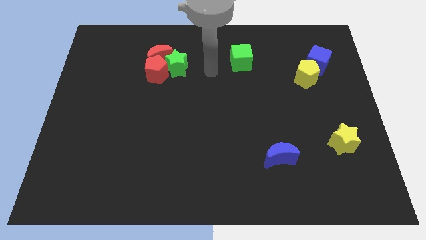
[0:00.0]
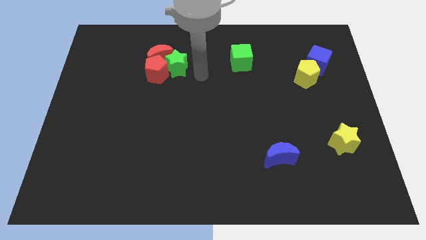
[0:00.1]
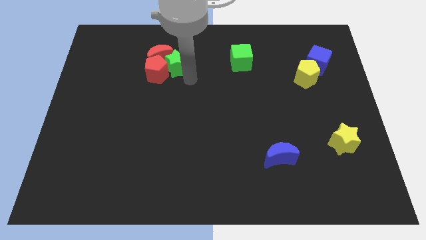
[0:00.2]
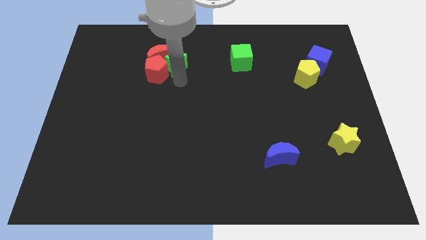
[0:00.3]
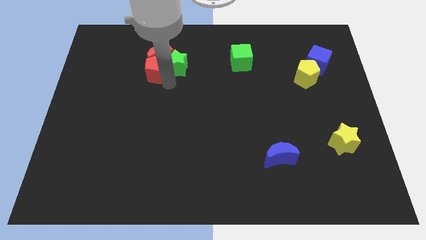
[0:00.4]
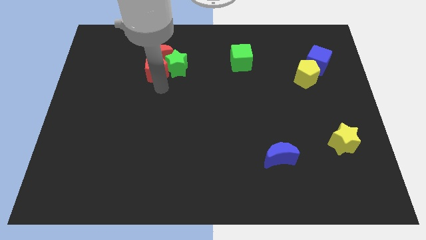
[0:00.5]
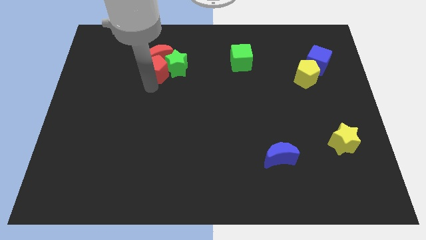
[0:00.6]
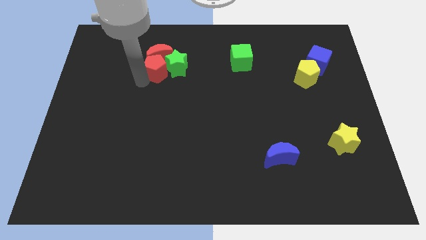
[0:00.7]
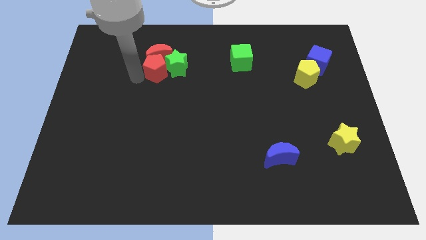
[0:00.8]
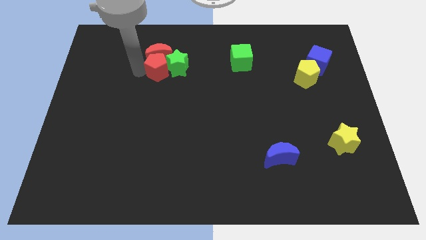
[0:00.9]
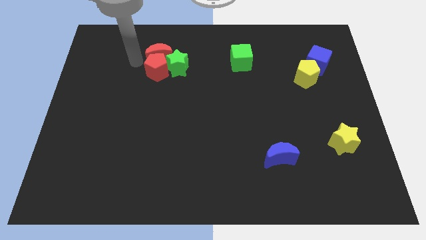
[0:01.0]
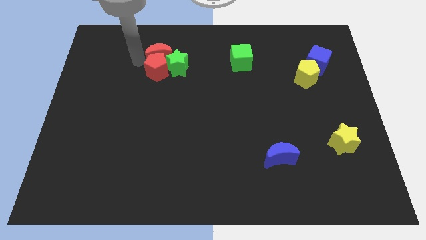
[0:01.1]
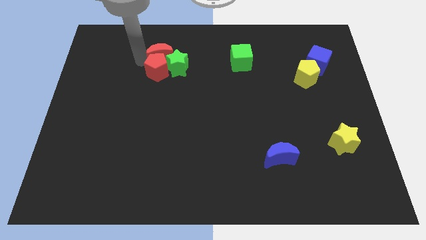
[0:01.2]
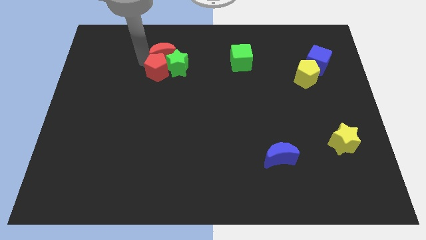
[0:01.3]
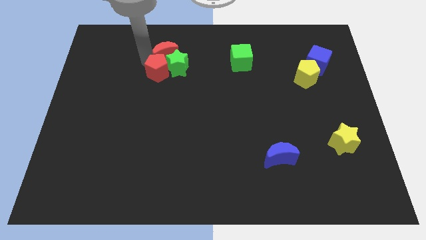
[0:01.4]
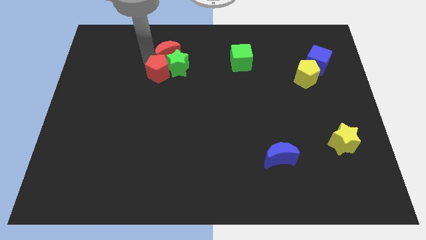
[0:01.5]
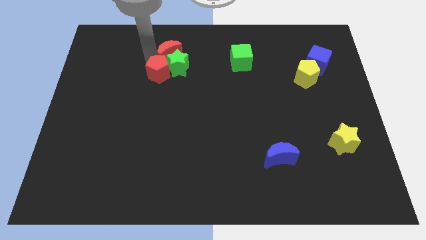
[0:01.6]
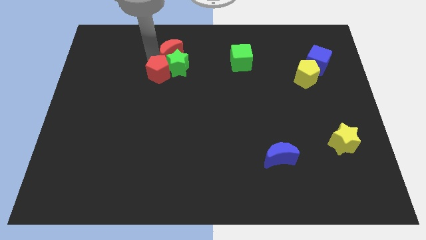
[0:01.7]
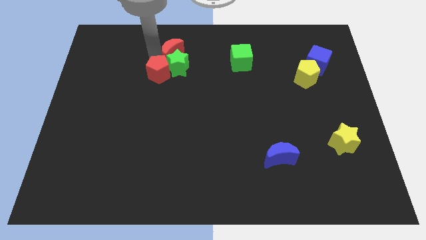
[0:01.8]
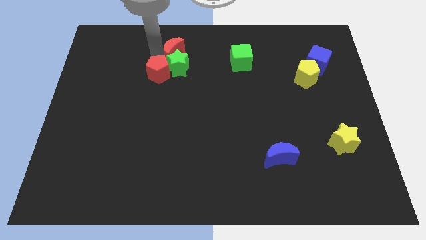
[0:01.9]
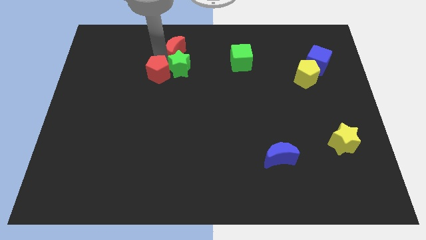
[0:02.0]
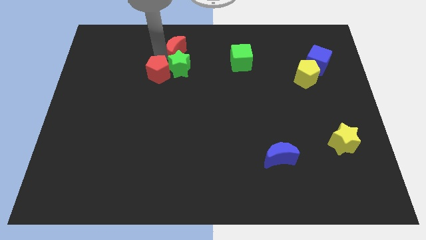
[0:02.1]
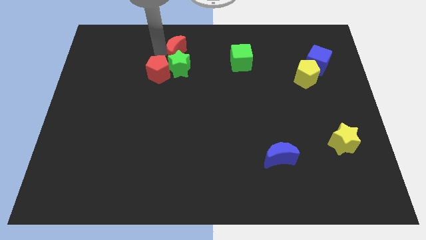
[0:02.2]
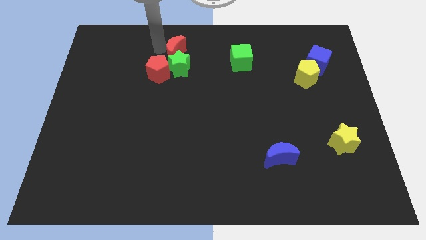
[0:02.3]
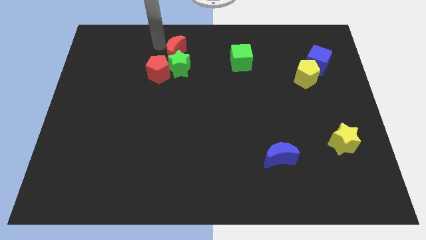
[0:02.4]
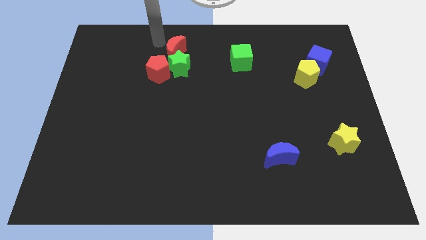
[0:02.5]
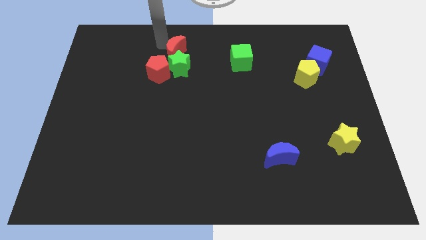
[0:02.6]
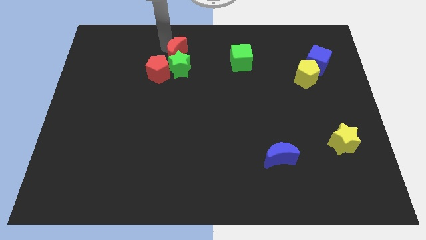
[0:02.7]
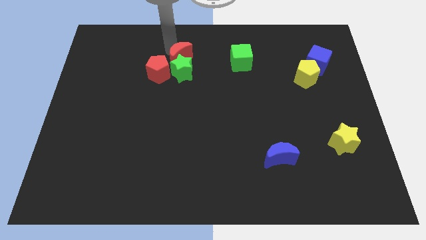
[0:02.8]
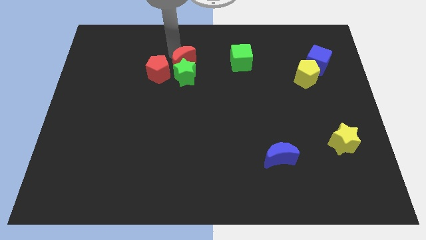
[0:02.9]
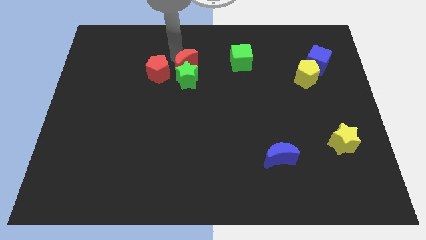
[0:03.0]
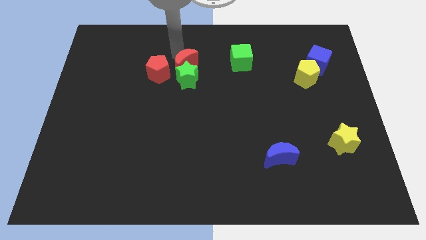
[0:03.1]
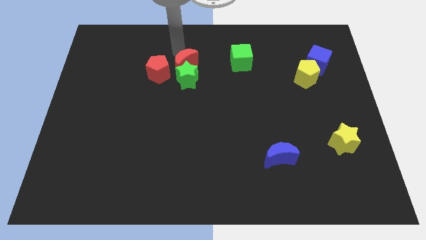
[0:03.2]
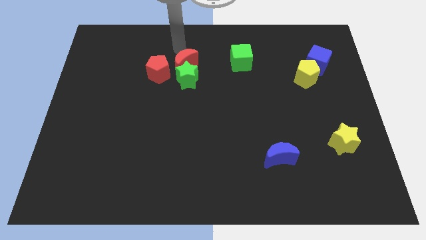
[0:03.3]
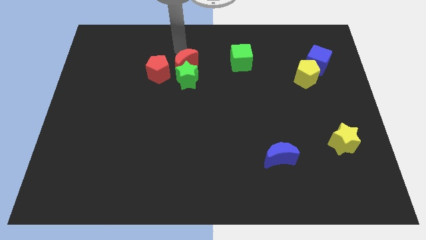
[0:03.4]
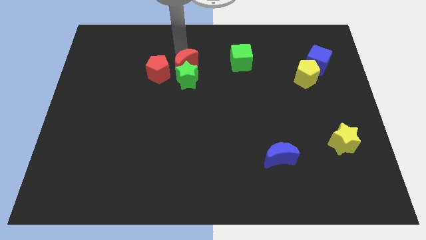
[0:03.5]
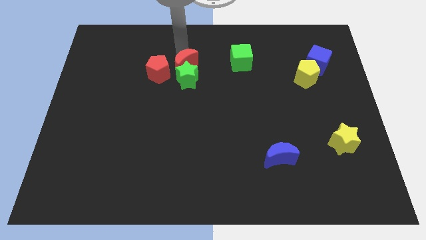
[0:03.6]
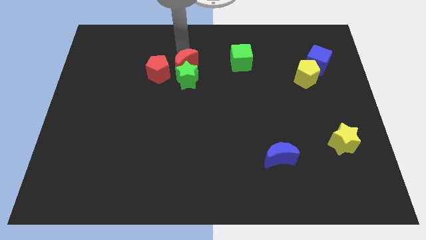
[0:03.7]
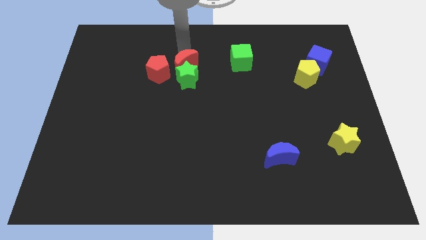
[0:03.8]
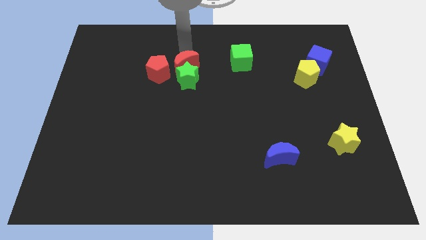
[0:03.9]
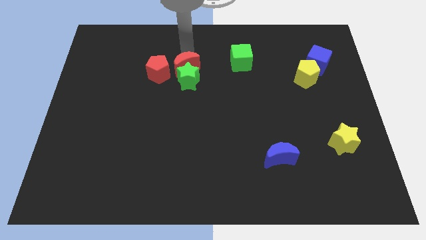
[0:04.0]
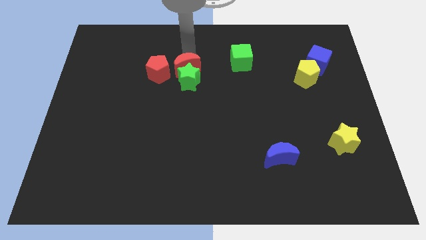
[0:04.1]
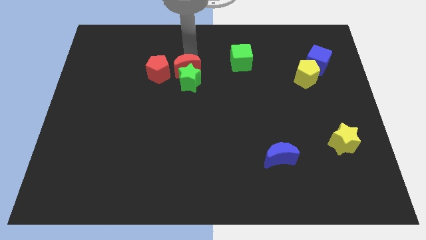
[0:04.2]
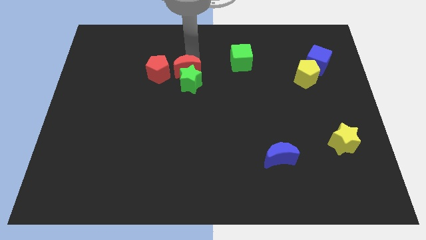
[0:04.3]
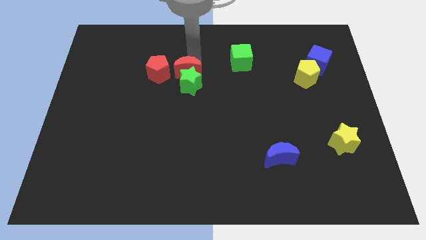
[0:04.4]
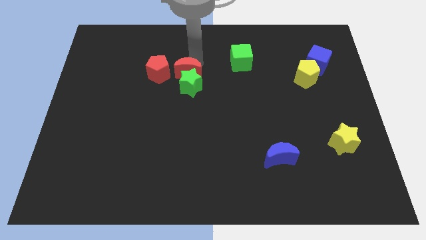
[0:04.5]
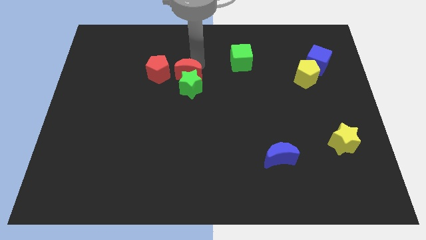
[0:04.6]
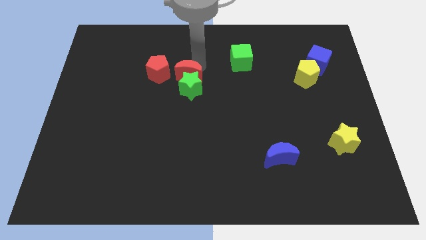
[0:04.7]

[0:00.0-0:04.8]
put the red moon diagonally down and to the right of the red pentagon

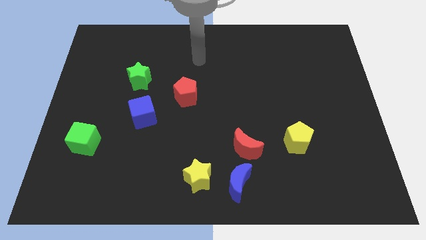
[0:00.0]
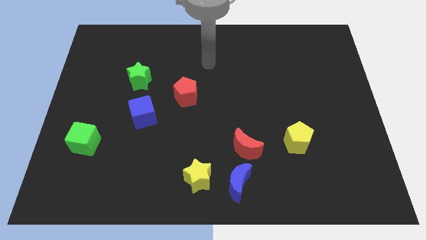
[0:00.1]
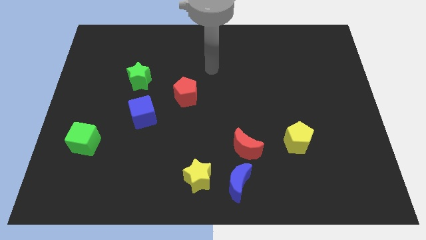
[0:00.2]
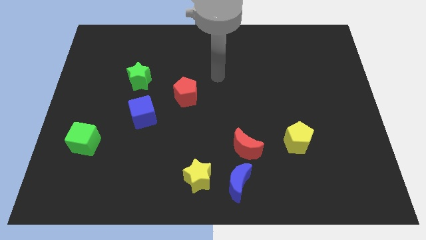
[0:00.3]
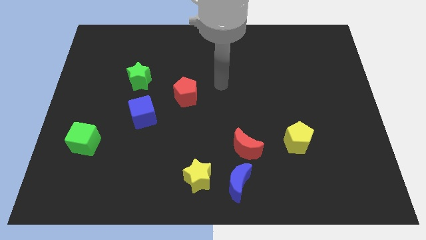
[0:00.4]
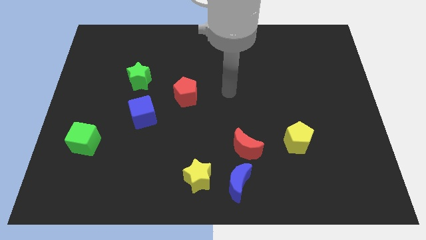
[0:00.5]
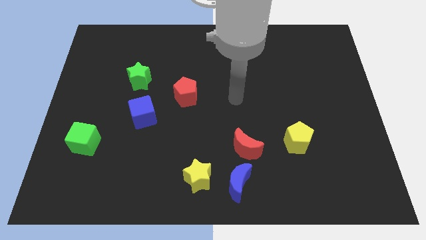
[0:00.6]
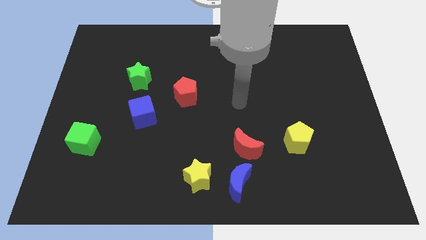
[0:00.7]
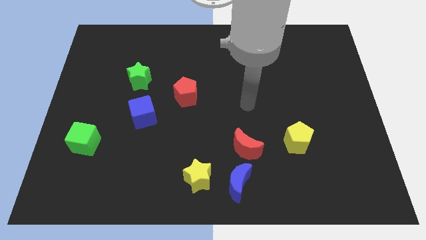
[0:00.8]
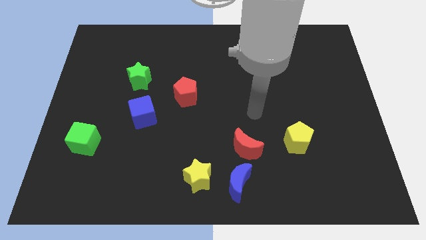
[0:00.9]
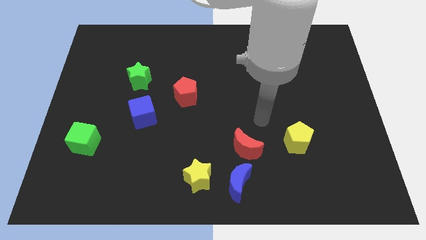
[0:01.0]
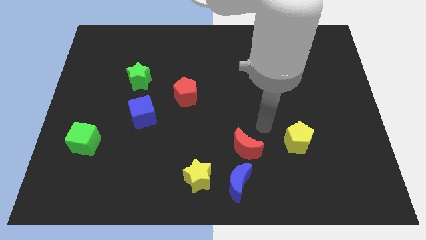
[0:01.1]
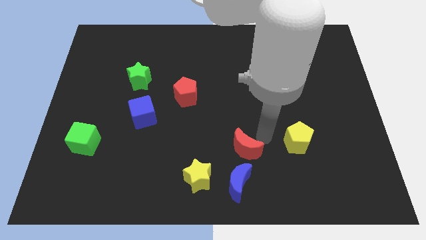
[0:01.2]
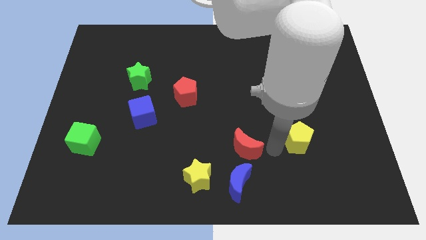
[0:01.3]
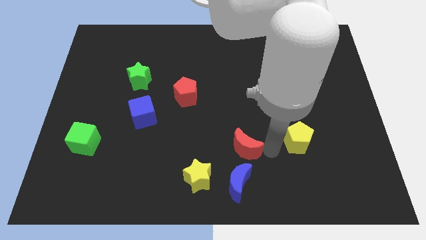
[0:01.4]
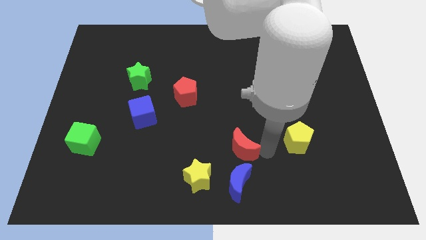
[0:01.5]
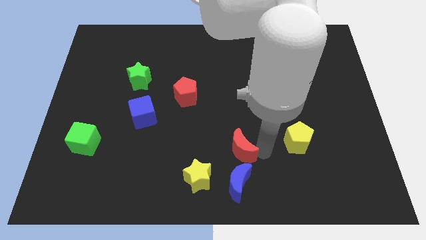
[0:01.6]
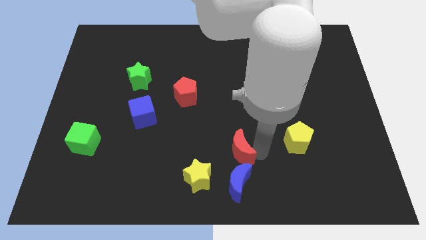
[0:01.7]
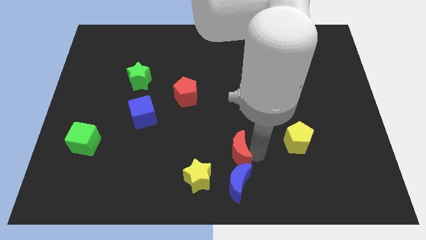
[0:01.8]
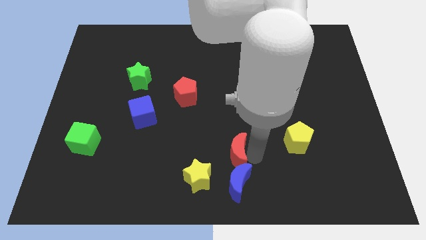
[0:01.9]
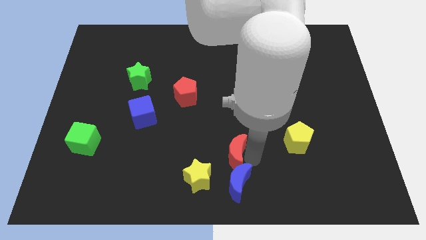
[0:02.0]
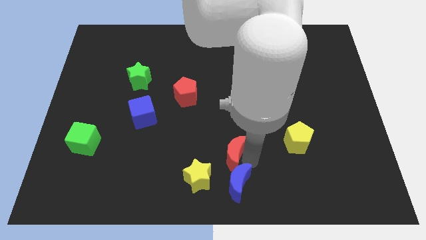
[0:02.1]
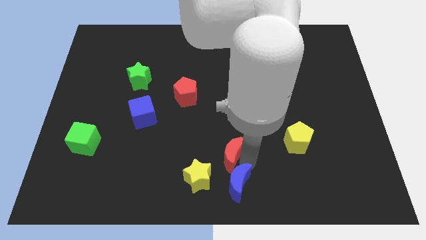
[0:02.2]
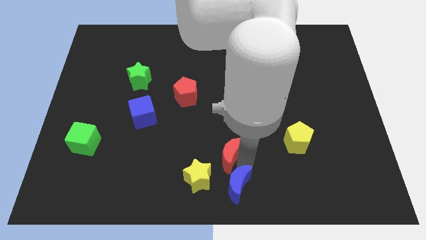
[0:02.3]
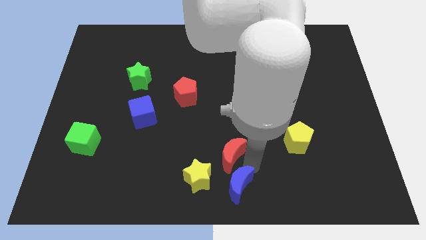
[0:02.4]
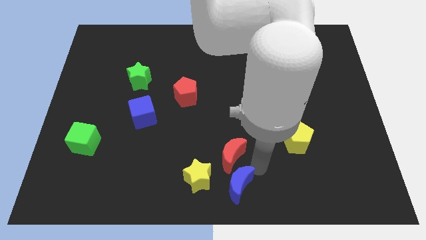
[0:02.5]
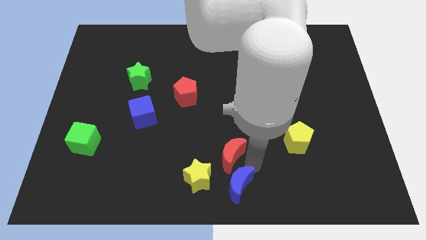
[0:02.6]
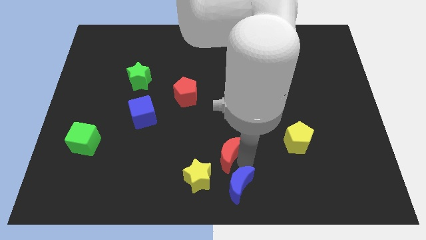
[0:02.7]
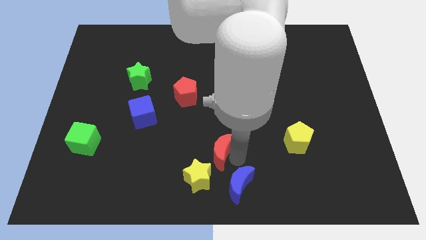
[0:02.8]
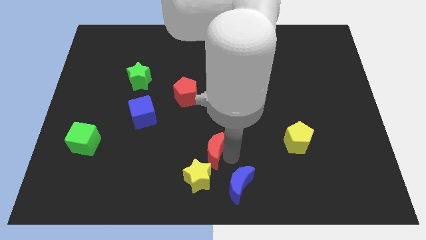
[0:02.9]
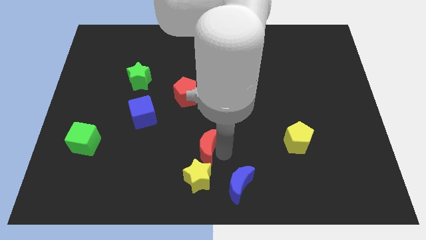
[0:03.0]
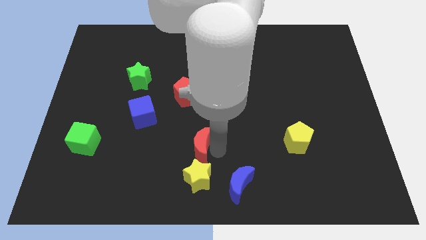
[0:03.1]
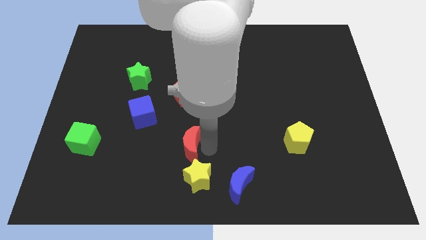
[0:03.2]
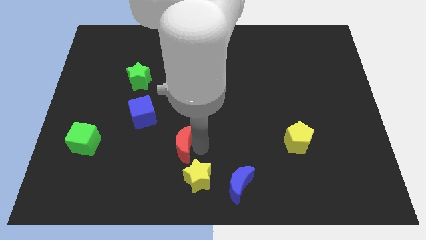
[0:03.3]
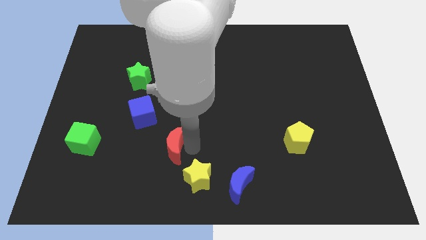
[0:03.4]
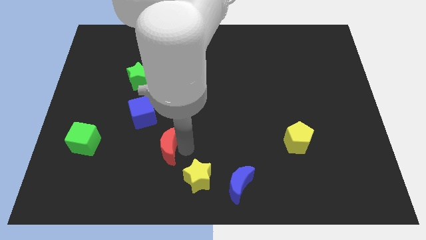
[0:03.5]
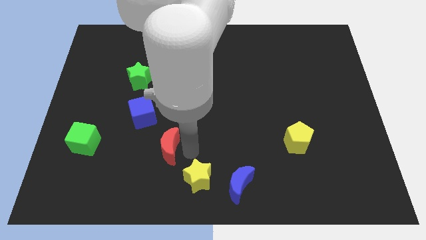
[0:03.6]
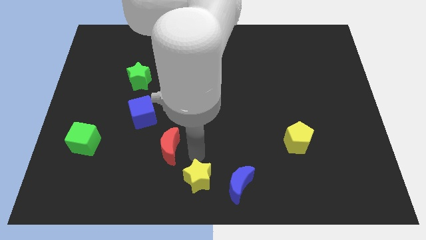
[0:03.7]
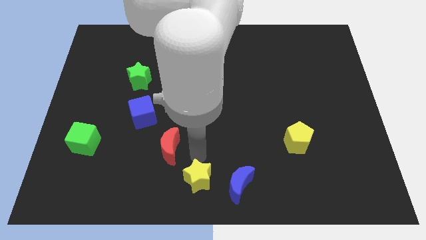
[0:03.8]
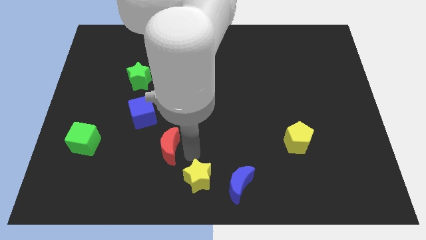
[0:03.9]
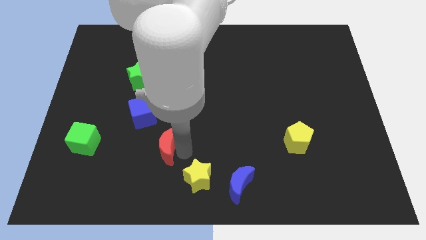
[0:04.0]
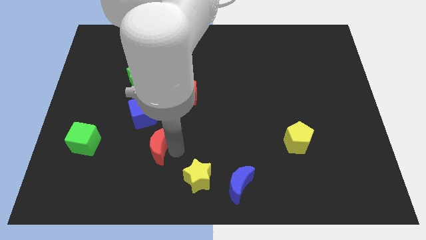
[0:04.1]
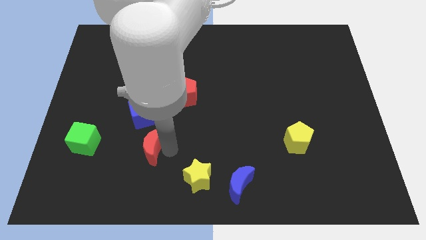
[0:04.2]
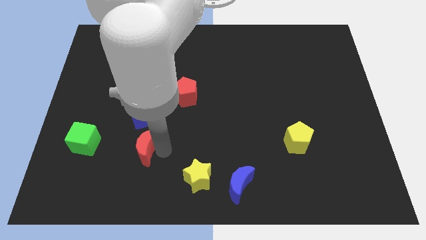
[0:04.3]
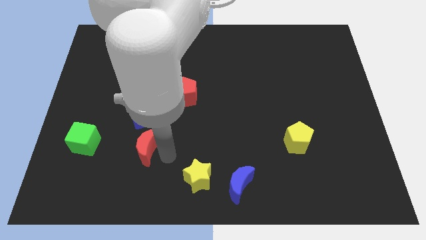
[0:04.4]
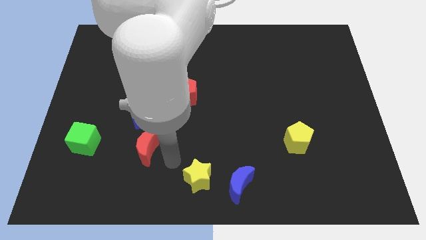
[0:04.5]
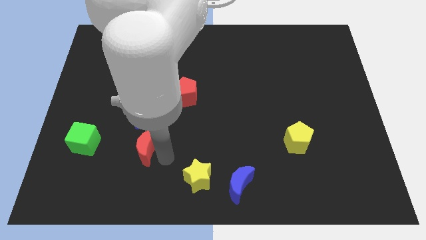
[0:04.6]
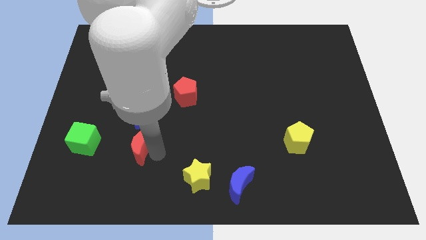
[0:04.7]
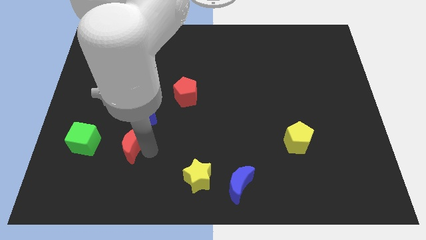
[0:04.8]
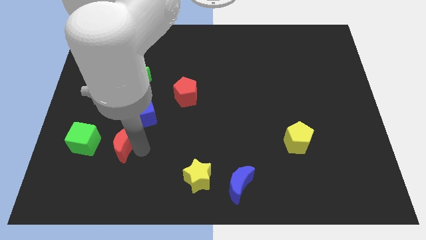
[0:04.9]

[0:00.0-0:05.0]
push the red moon to the bottom left side of the blue cube
